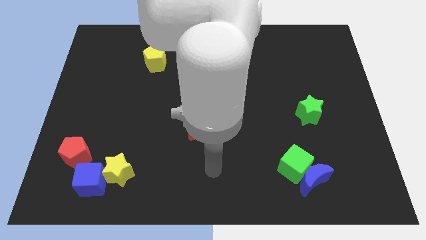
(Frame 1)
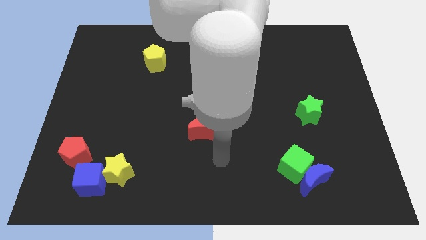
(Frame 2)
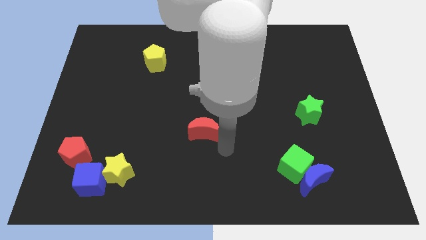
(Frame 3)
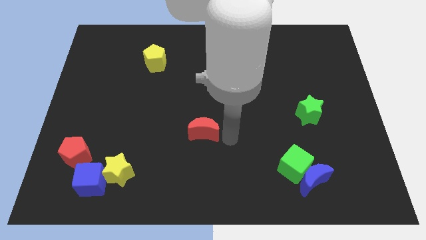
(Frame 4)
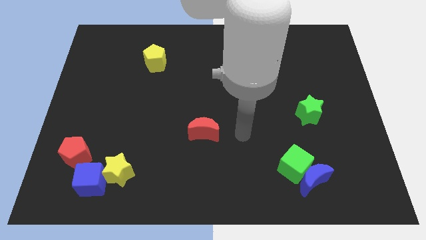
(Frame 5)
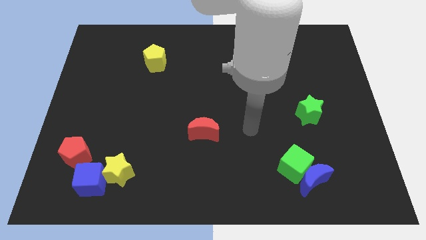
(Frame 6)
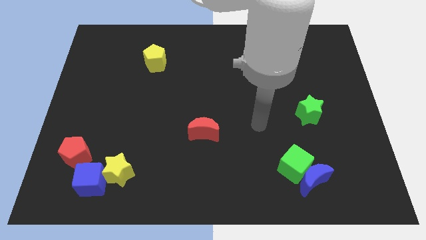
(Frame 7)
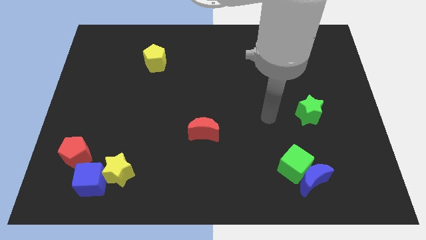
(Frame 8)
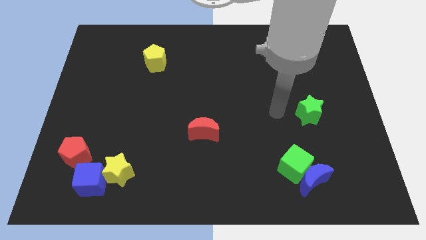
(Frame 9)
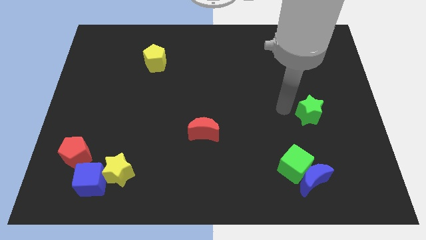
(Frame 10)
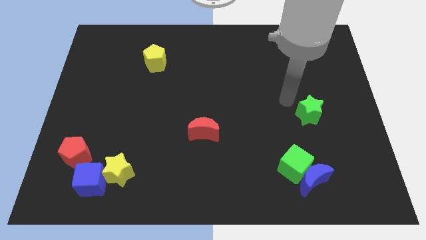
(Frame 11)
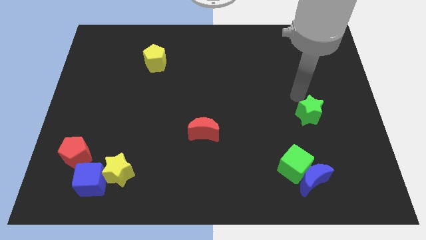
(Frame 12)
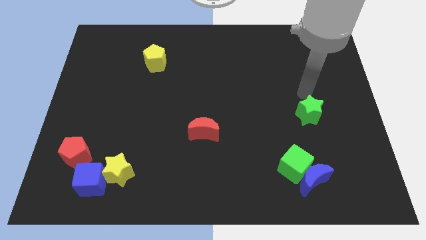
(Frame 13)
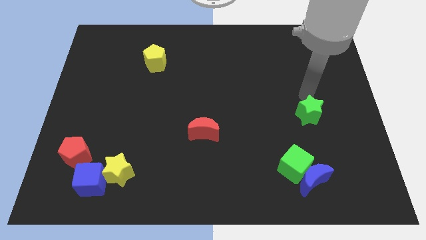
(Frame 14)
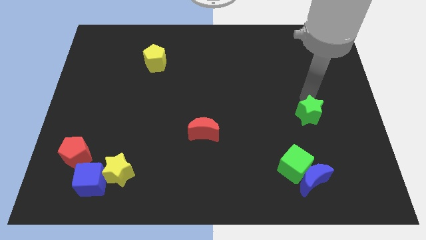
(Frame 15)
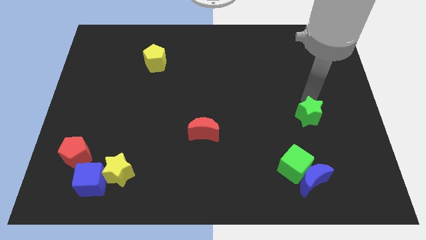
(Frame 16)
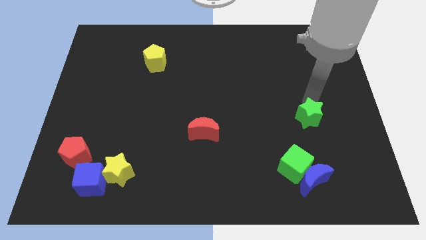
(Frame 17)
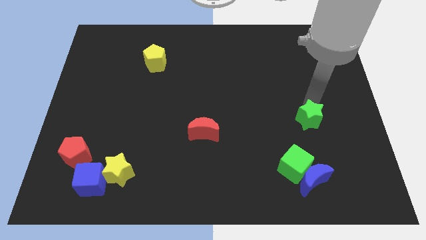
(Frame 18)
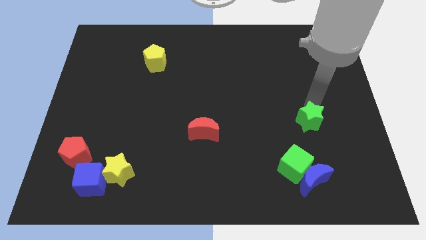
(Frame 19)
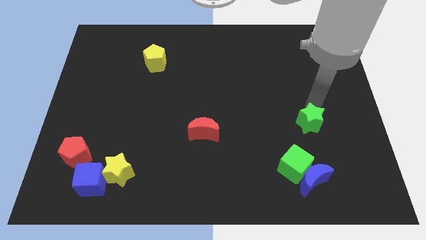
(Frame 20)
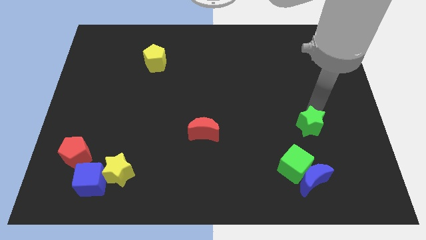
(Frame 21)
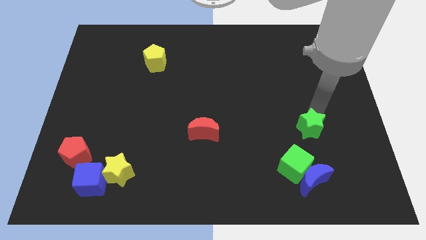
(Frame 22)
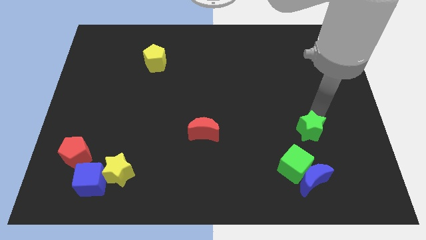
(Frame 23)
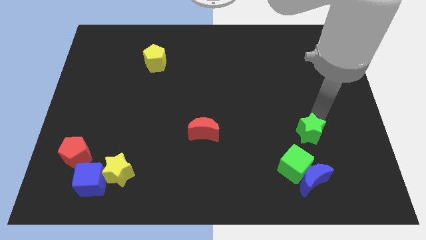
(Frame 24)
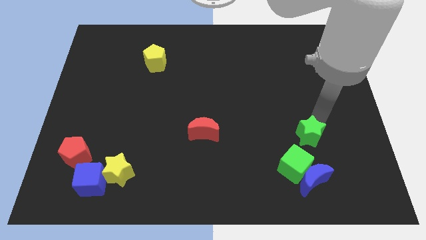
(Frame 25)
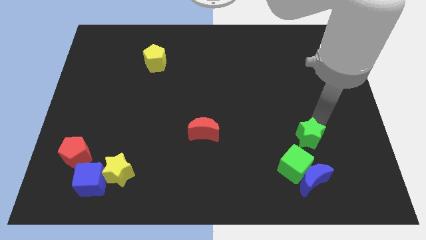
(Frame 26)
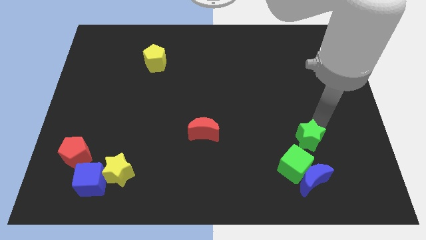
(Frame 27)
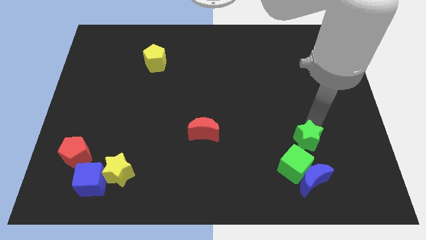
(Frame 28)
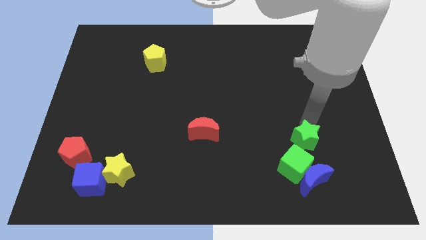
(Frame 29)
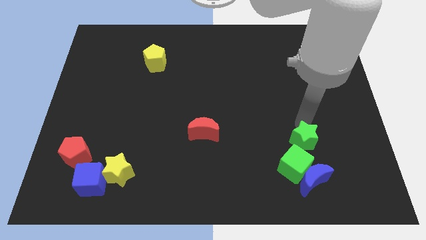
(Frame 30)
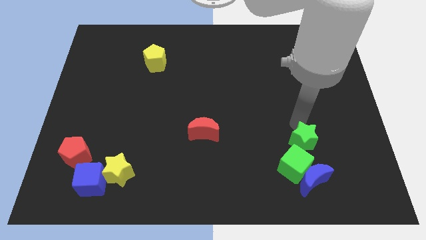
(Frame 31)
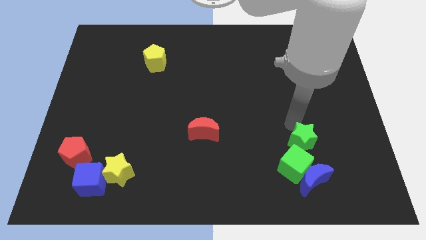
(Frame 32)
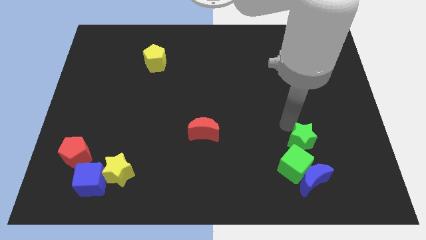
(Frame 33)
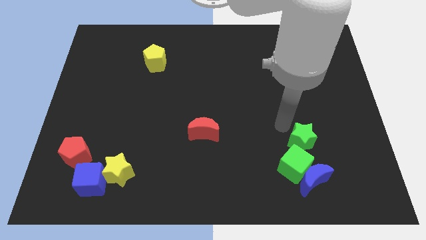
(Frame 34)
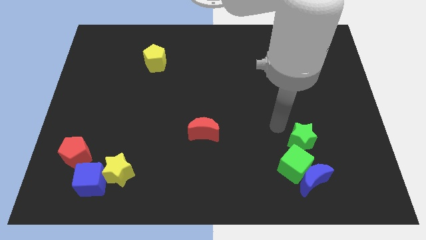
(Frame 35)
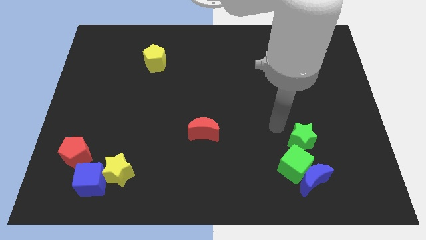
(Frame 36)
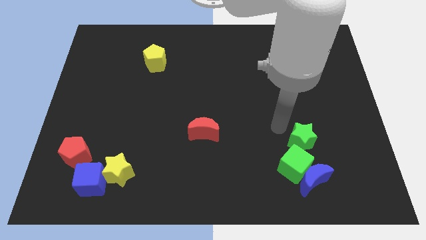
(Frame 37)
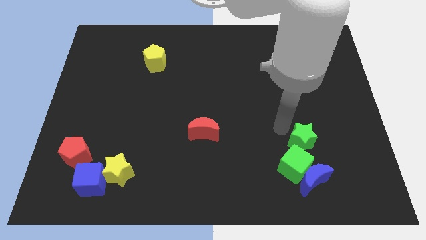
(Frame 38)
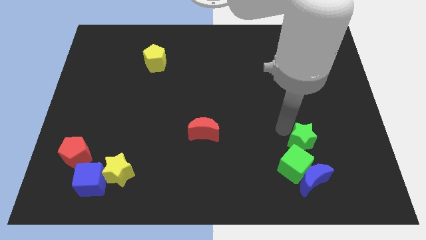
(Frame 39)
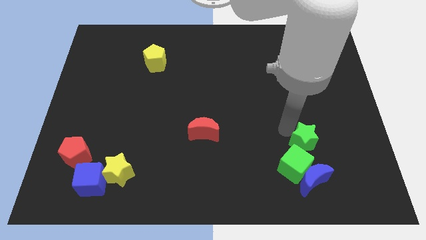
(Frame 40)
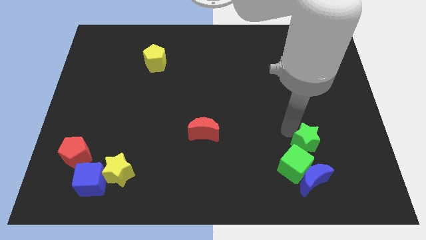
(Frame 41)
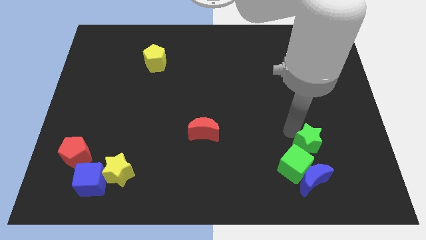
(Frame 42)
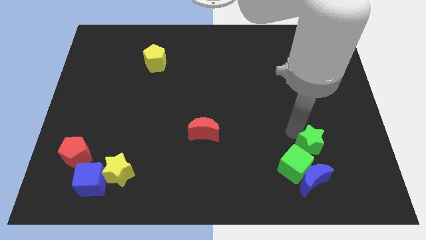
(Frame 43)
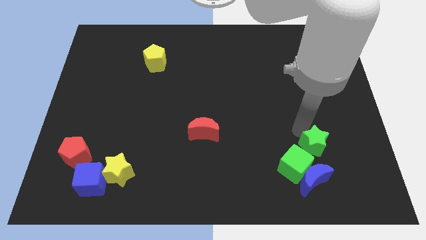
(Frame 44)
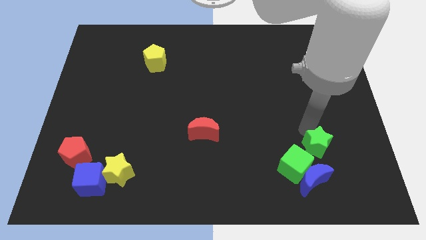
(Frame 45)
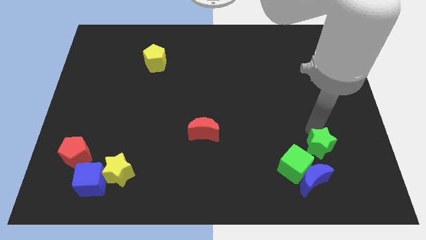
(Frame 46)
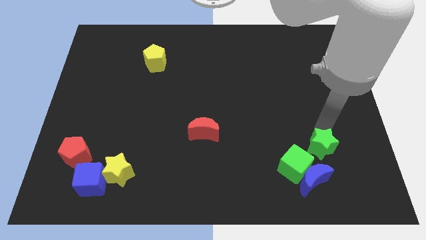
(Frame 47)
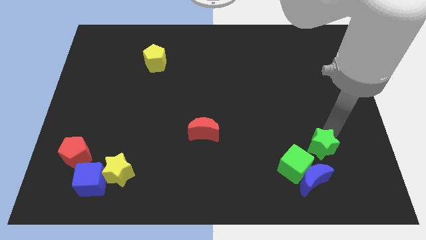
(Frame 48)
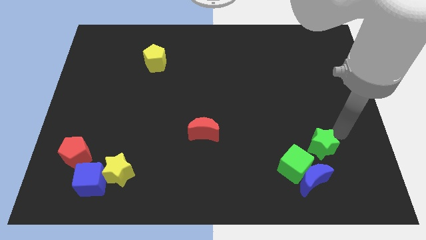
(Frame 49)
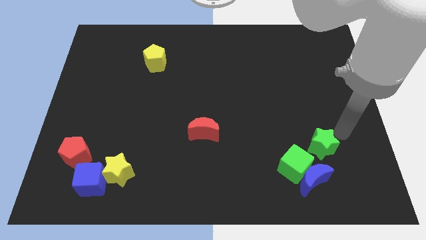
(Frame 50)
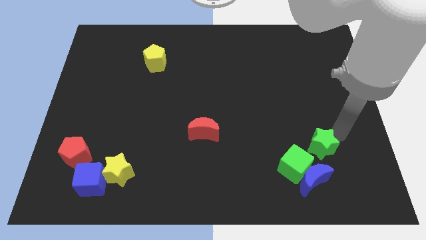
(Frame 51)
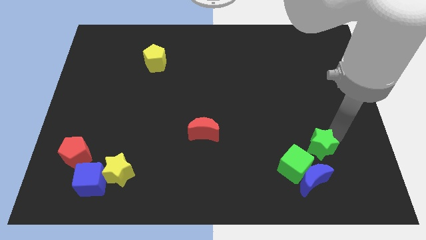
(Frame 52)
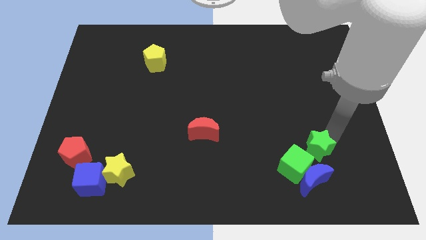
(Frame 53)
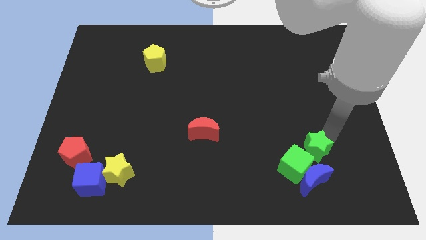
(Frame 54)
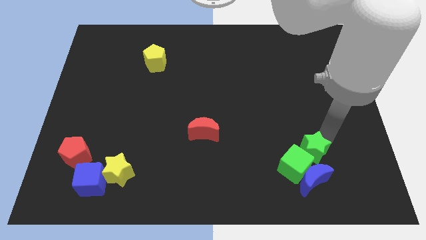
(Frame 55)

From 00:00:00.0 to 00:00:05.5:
slide the green star to the green cube
